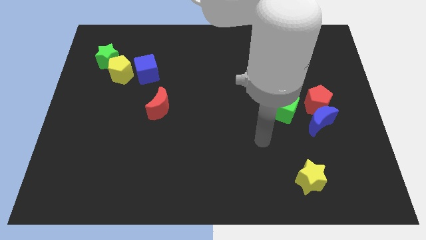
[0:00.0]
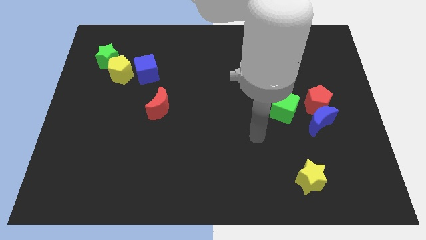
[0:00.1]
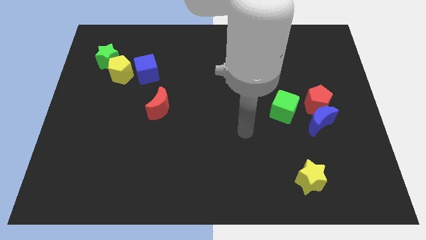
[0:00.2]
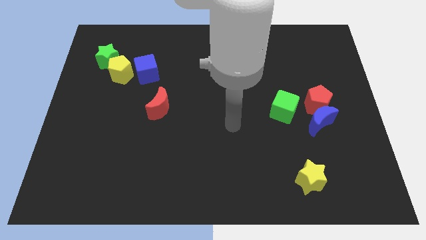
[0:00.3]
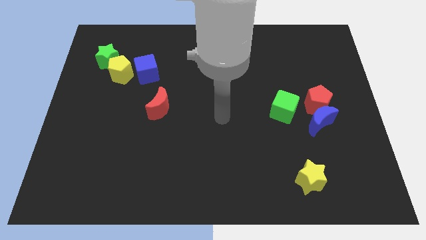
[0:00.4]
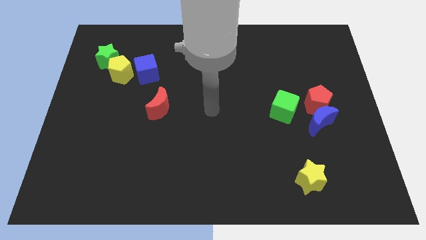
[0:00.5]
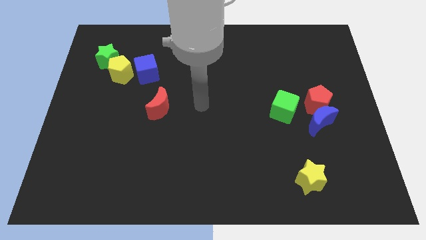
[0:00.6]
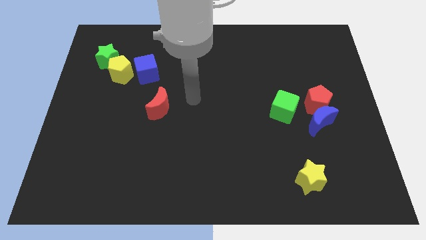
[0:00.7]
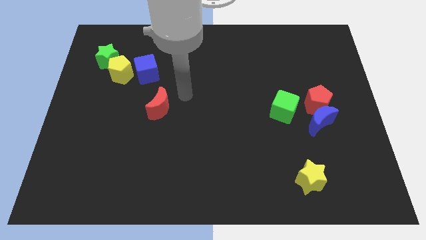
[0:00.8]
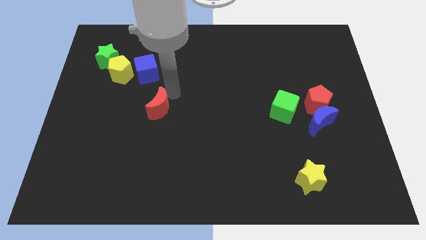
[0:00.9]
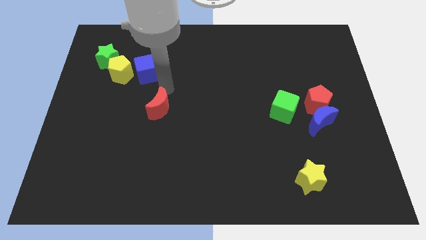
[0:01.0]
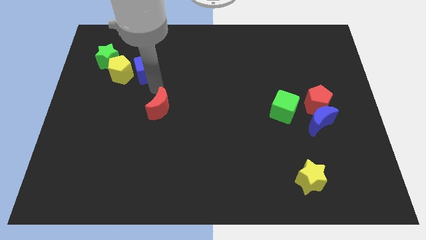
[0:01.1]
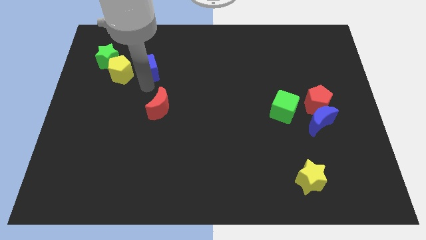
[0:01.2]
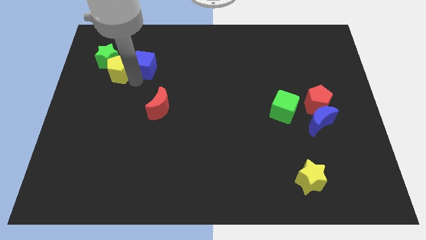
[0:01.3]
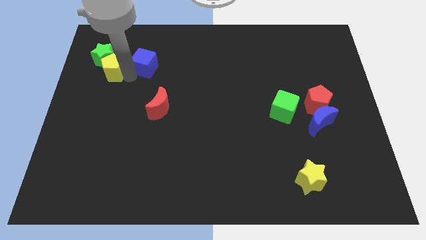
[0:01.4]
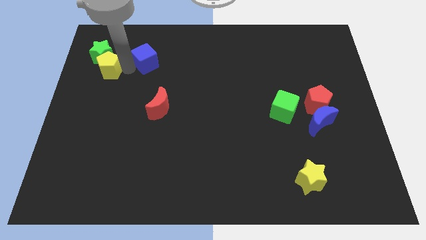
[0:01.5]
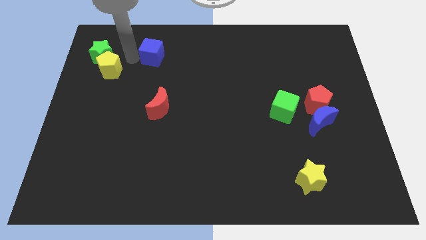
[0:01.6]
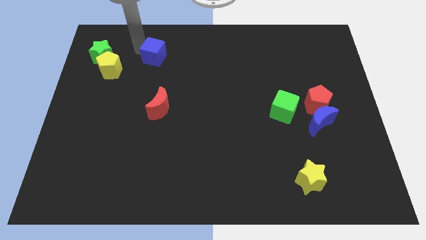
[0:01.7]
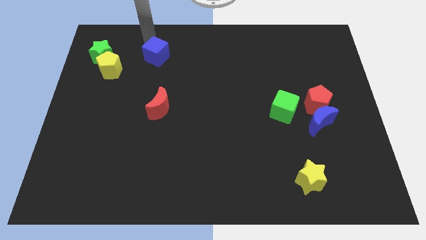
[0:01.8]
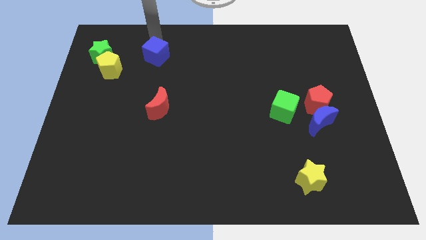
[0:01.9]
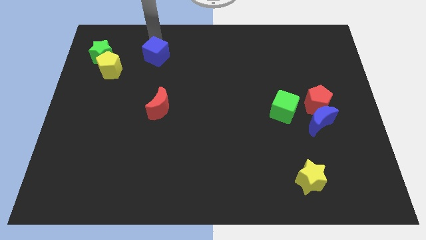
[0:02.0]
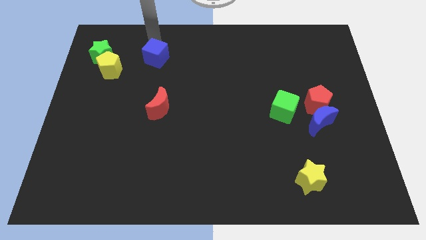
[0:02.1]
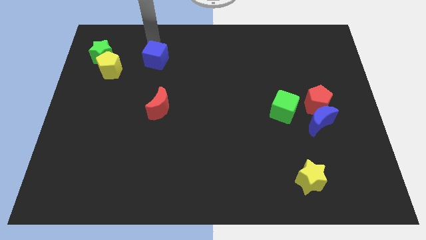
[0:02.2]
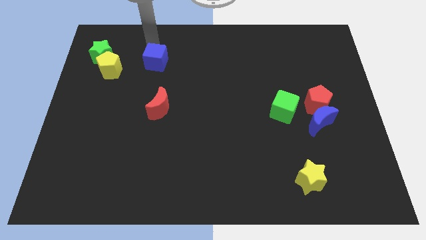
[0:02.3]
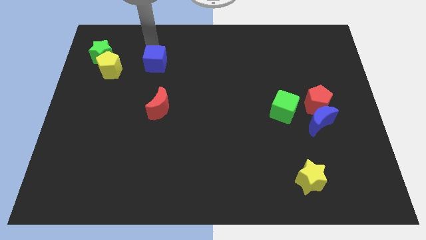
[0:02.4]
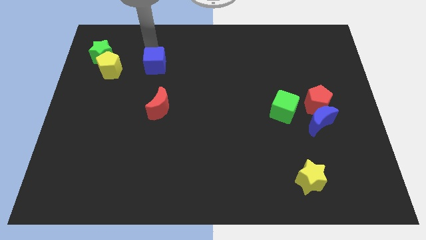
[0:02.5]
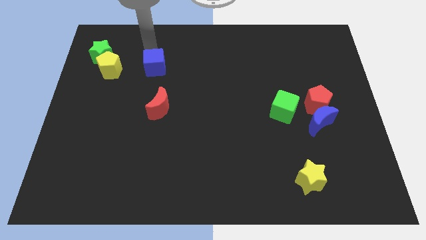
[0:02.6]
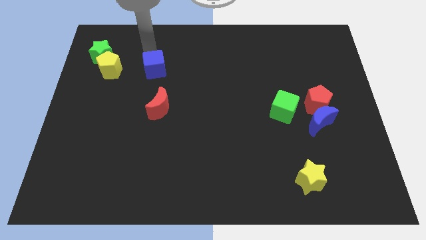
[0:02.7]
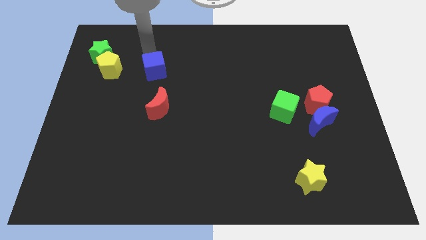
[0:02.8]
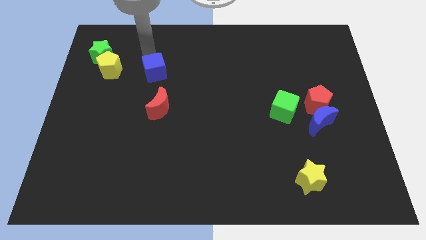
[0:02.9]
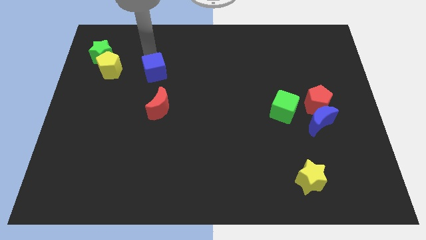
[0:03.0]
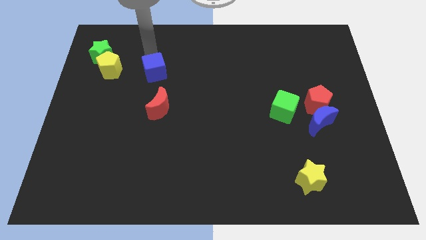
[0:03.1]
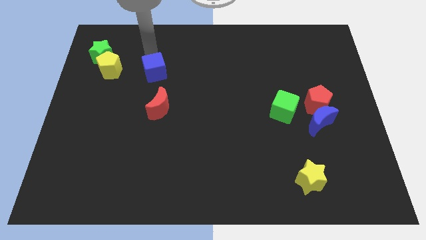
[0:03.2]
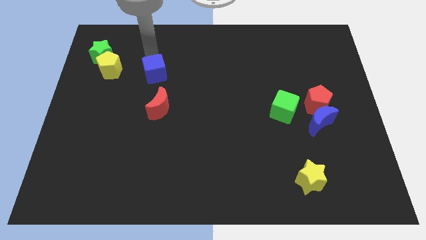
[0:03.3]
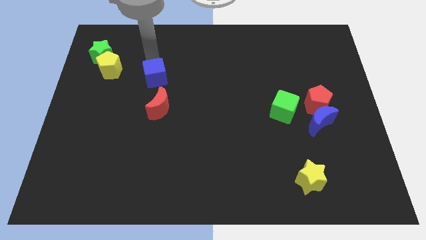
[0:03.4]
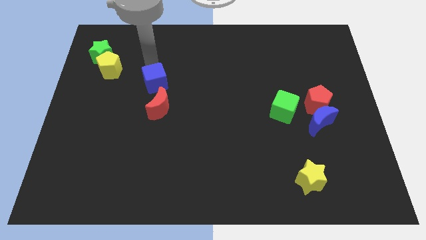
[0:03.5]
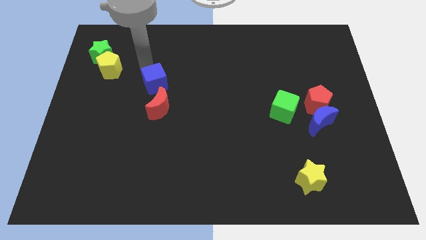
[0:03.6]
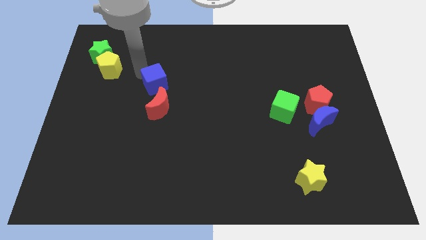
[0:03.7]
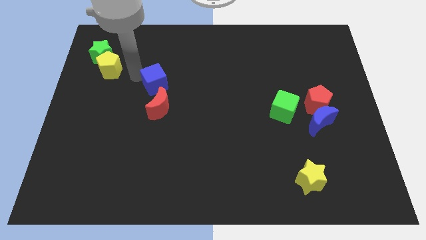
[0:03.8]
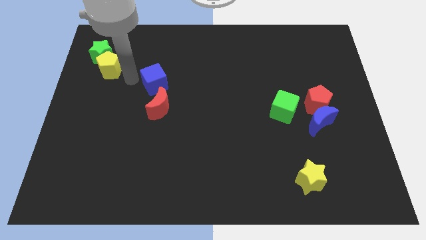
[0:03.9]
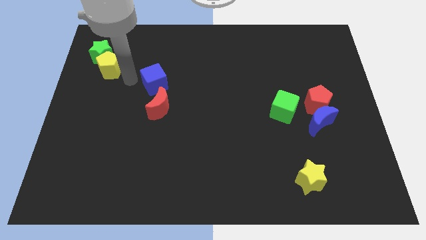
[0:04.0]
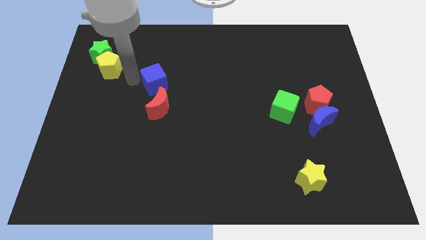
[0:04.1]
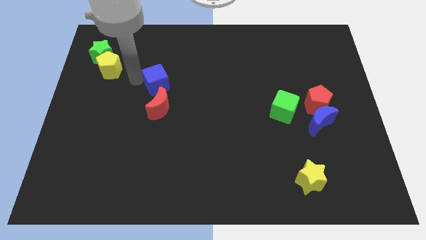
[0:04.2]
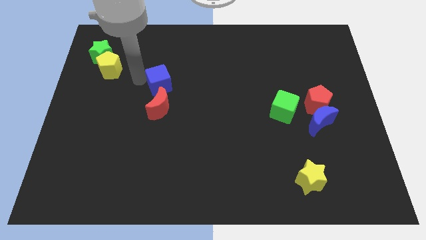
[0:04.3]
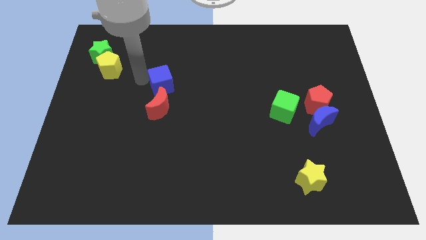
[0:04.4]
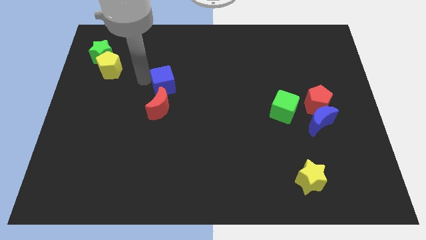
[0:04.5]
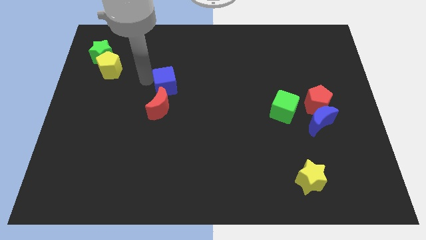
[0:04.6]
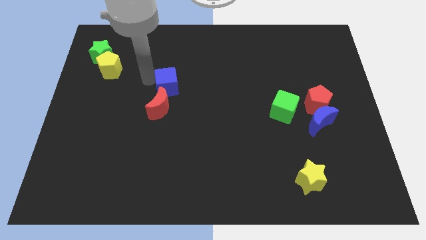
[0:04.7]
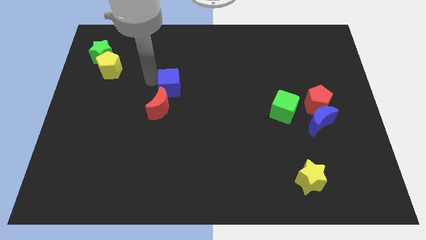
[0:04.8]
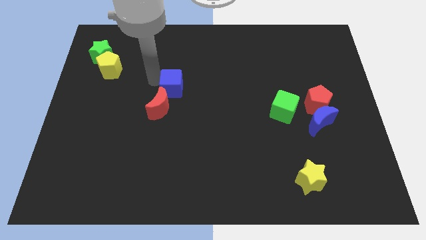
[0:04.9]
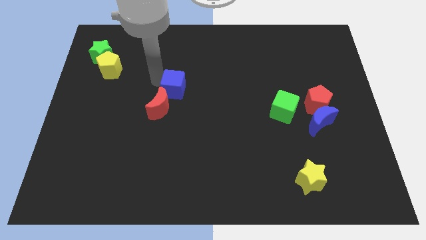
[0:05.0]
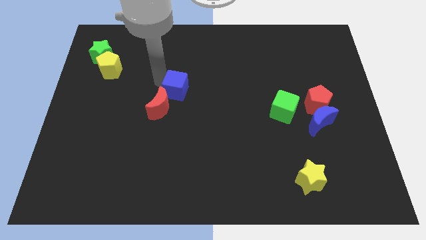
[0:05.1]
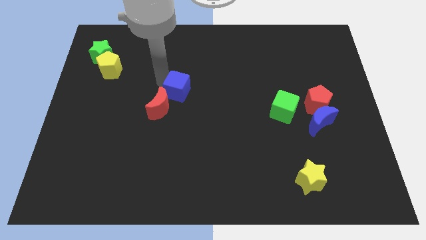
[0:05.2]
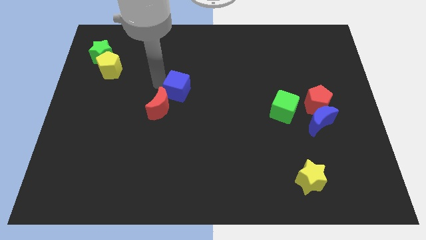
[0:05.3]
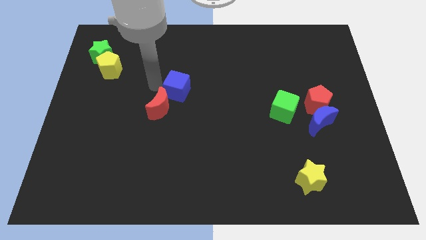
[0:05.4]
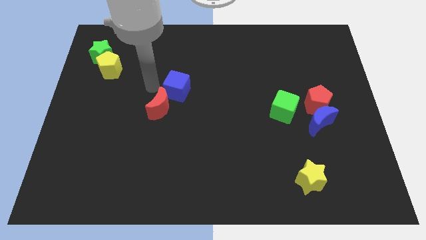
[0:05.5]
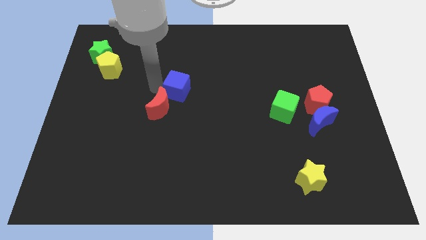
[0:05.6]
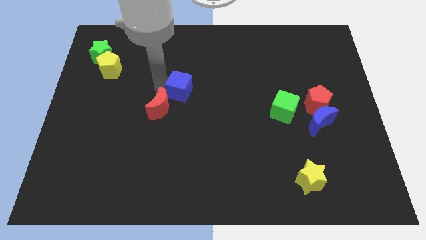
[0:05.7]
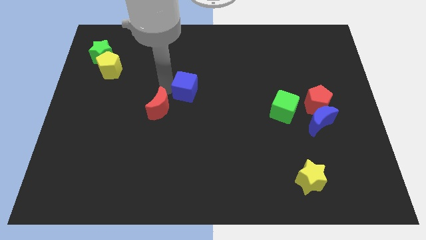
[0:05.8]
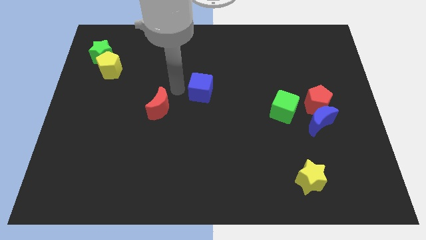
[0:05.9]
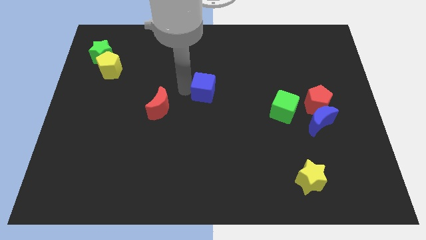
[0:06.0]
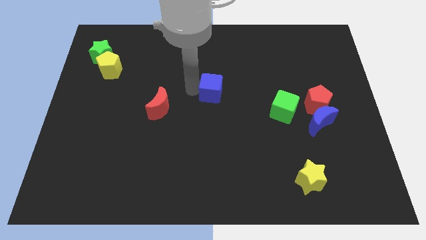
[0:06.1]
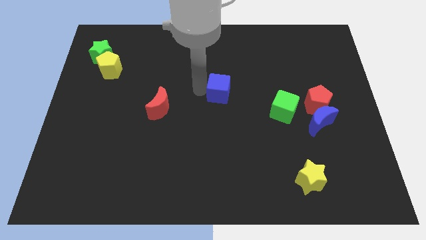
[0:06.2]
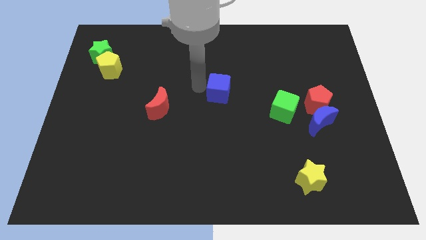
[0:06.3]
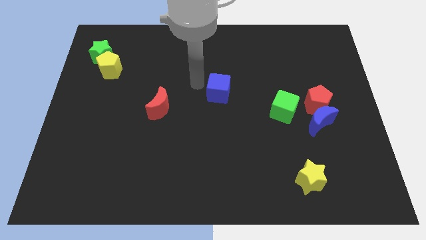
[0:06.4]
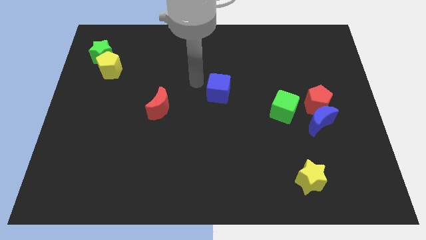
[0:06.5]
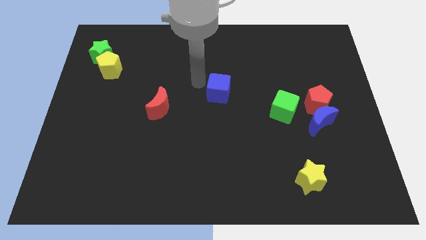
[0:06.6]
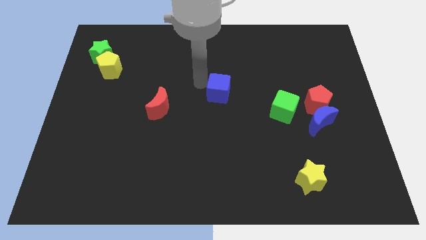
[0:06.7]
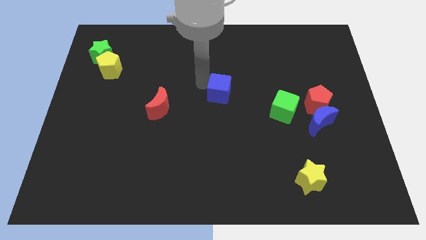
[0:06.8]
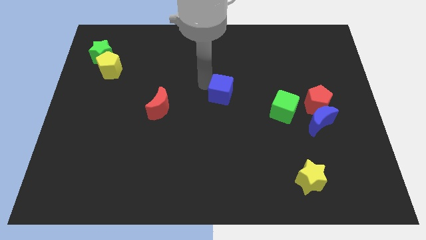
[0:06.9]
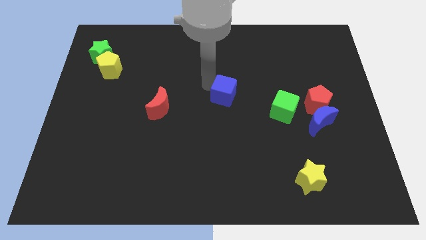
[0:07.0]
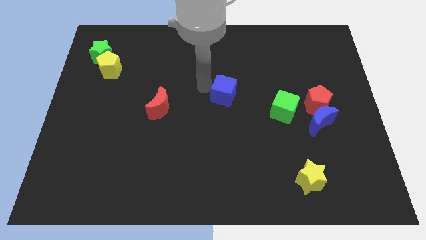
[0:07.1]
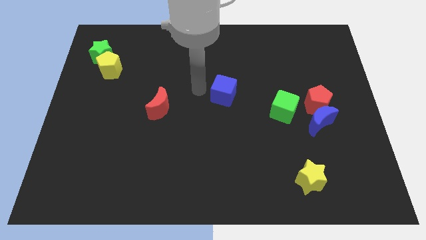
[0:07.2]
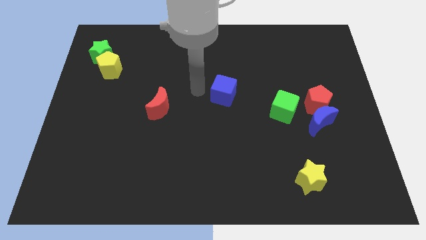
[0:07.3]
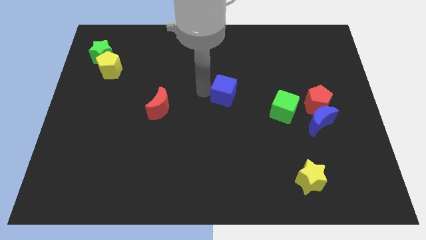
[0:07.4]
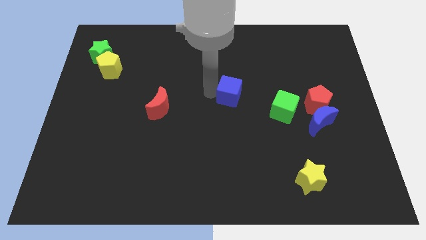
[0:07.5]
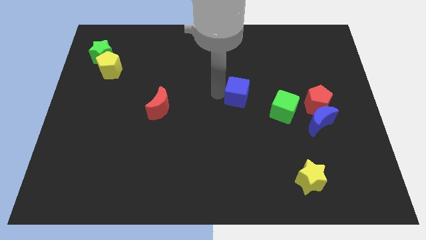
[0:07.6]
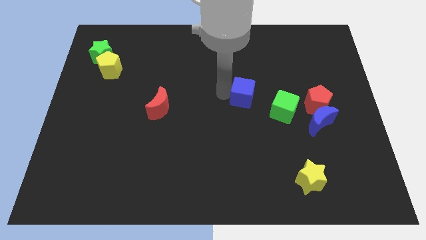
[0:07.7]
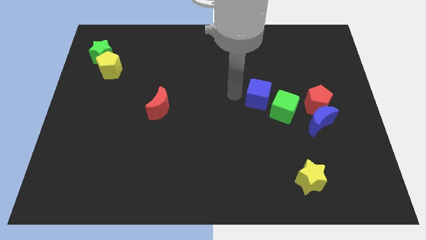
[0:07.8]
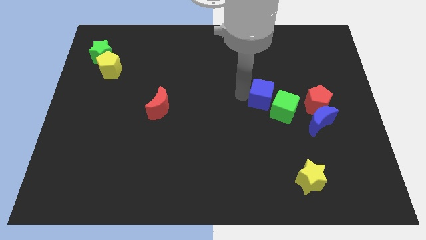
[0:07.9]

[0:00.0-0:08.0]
move the blue cube next to the green cube

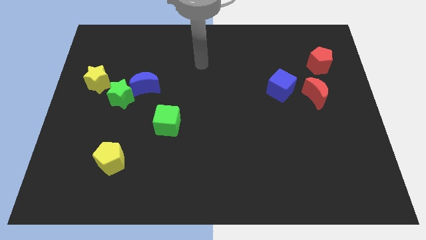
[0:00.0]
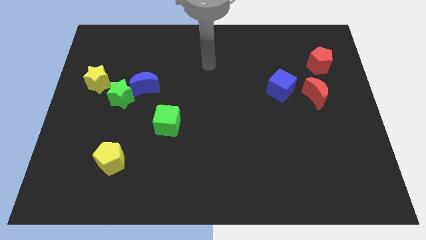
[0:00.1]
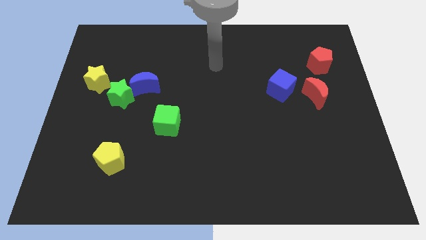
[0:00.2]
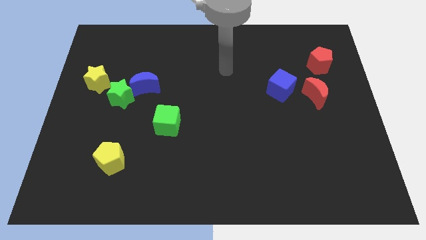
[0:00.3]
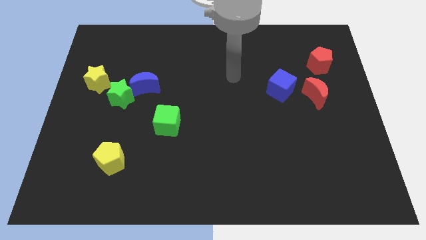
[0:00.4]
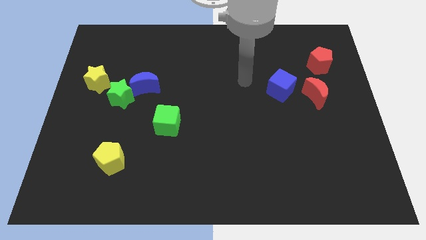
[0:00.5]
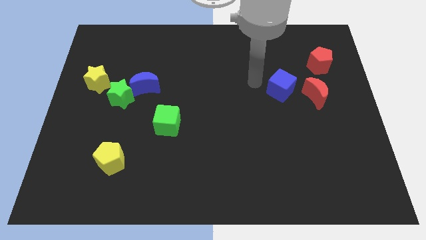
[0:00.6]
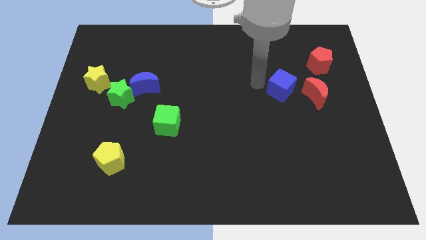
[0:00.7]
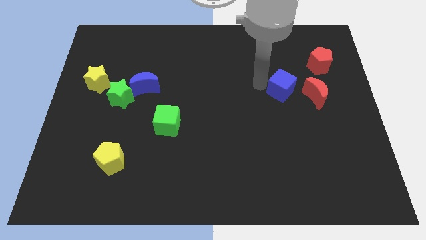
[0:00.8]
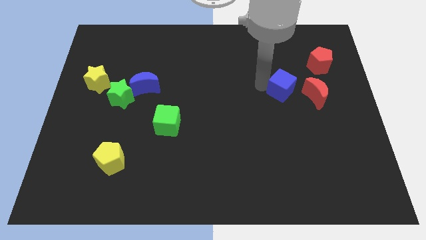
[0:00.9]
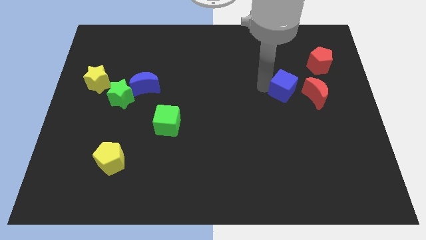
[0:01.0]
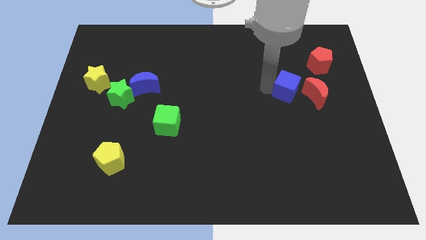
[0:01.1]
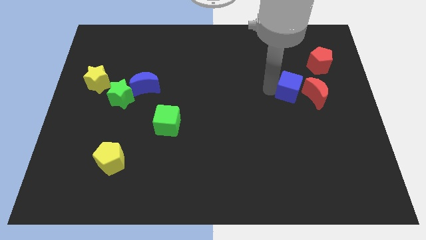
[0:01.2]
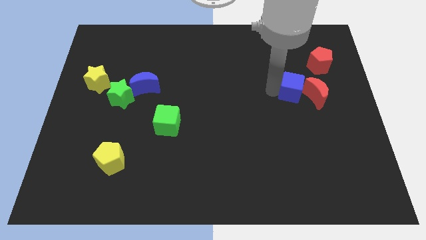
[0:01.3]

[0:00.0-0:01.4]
put the blue cube to the red moon
